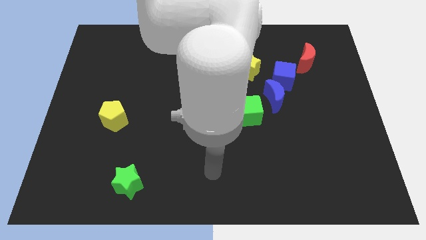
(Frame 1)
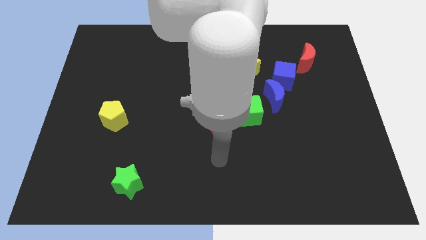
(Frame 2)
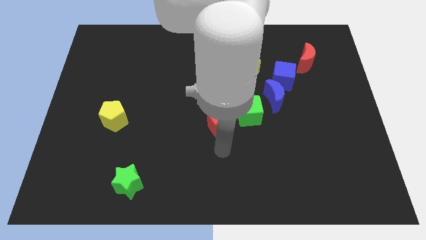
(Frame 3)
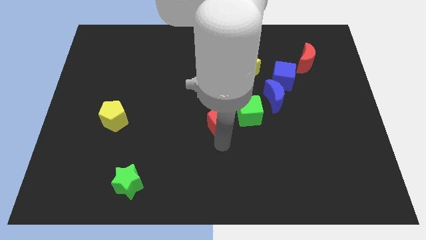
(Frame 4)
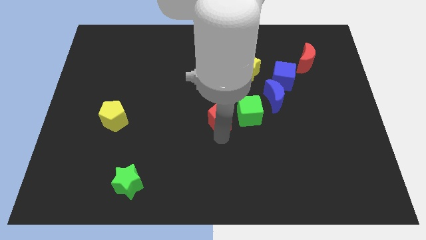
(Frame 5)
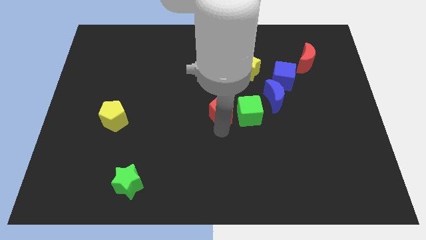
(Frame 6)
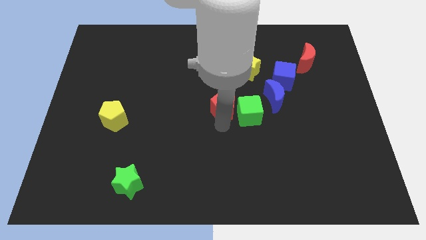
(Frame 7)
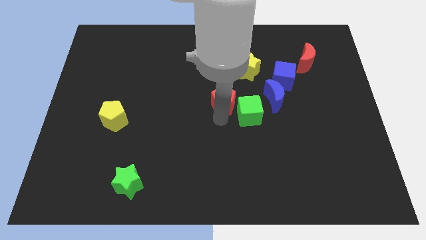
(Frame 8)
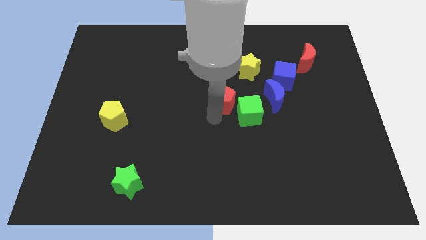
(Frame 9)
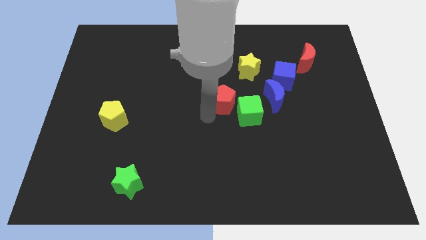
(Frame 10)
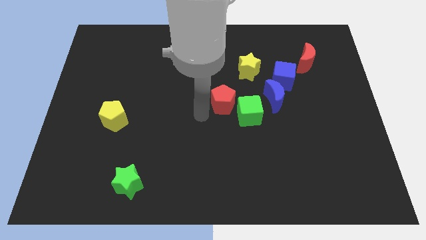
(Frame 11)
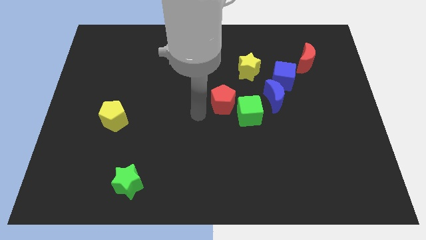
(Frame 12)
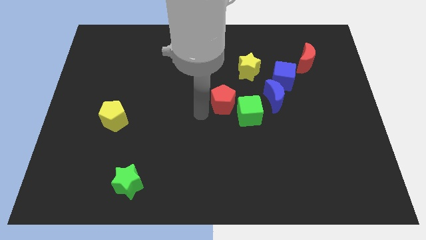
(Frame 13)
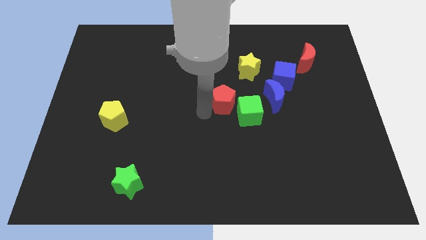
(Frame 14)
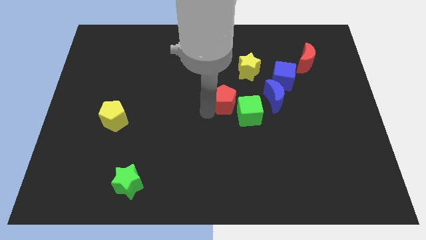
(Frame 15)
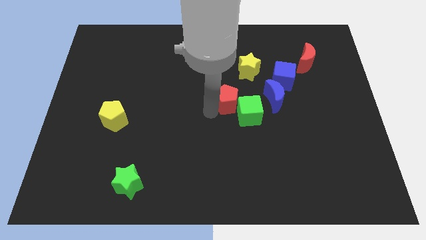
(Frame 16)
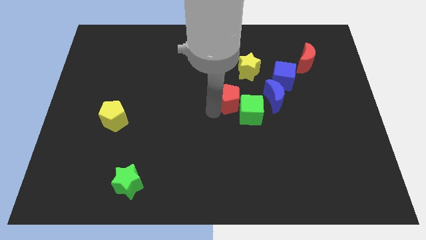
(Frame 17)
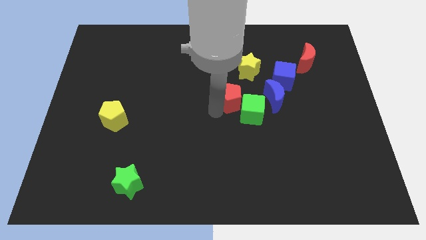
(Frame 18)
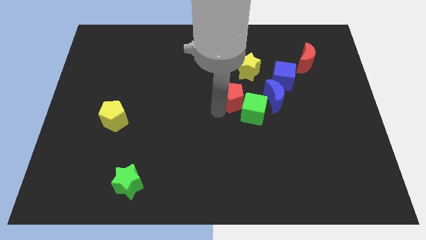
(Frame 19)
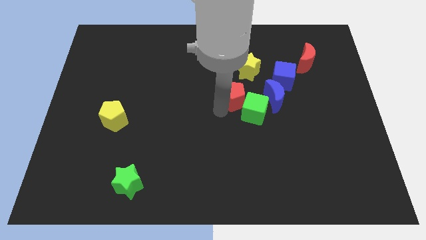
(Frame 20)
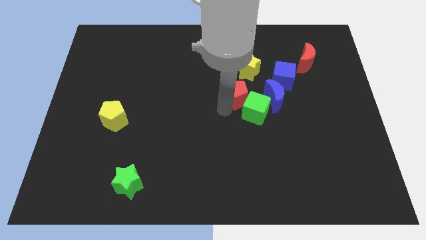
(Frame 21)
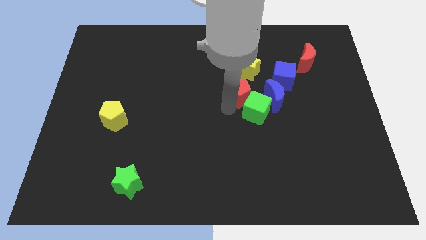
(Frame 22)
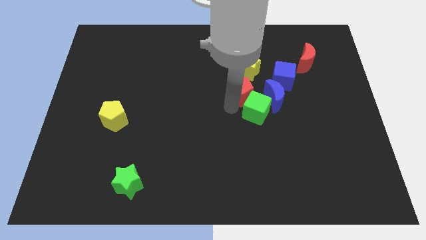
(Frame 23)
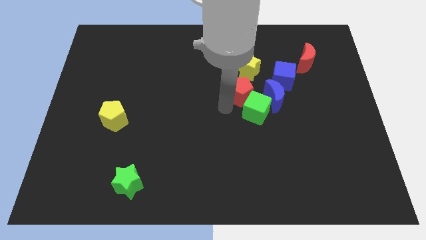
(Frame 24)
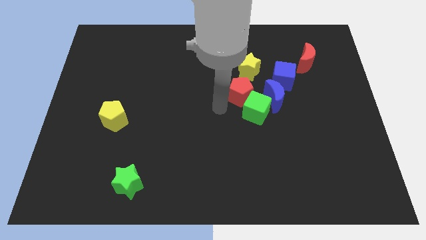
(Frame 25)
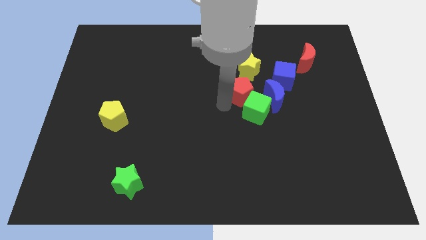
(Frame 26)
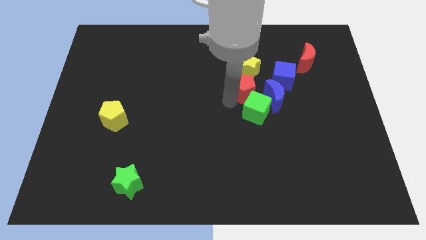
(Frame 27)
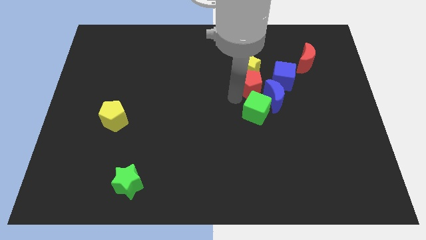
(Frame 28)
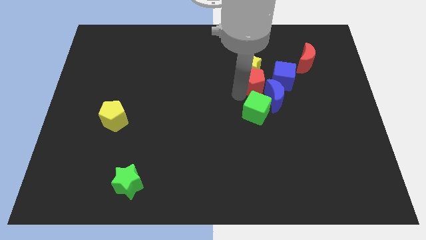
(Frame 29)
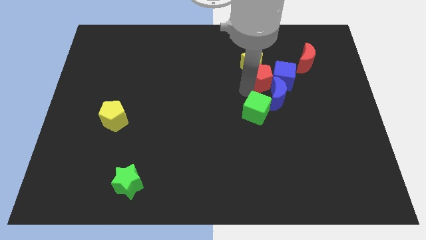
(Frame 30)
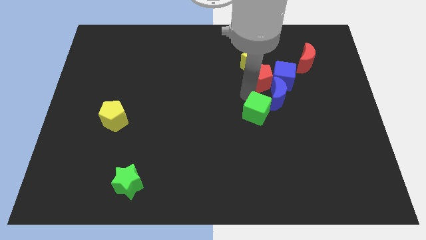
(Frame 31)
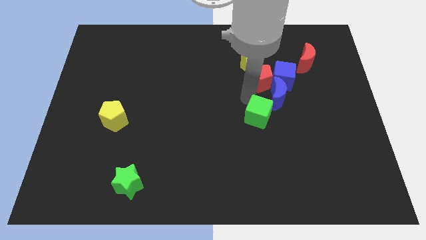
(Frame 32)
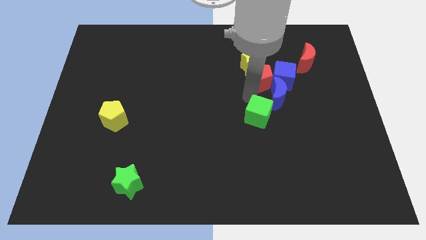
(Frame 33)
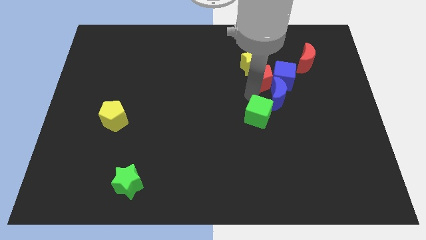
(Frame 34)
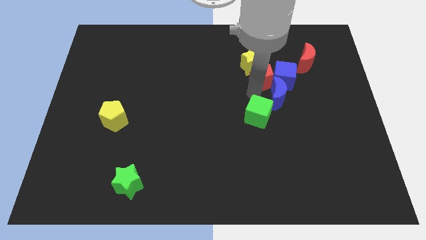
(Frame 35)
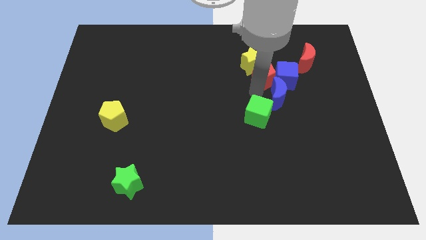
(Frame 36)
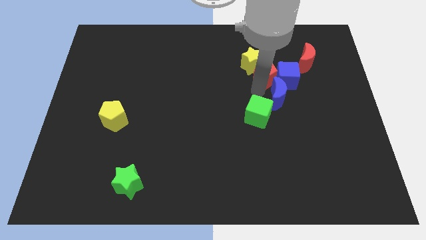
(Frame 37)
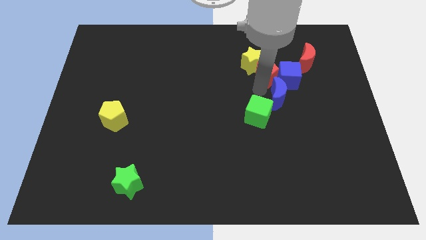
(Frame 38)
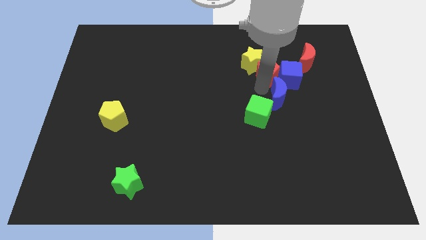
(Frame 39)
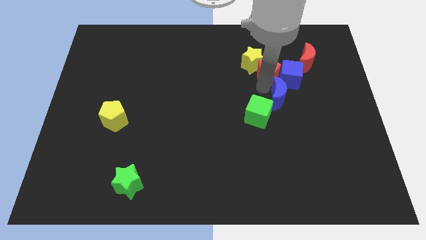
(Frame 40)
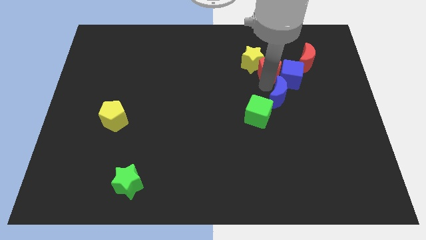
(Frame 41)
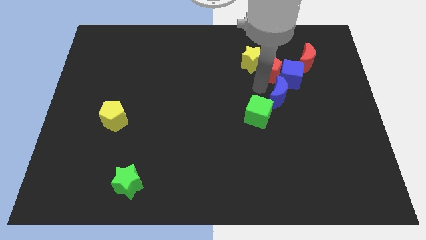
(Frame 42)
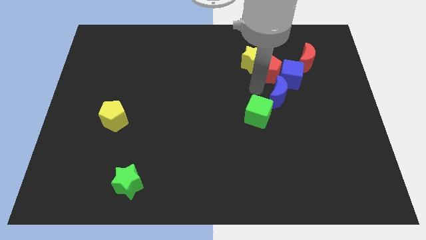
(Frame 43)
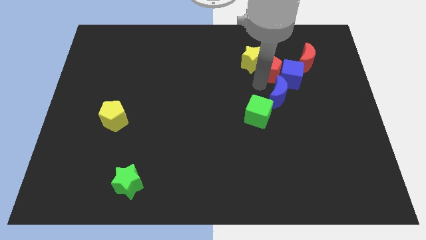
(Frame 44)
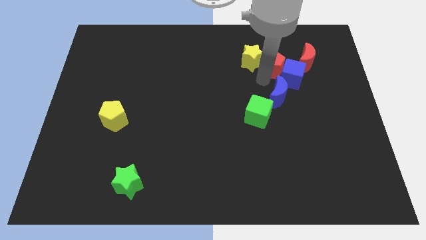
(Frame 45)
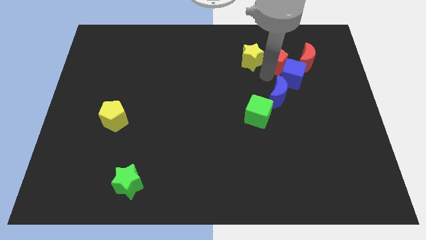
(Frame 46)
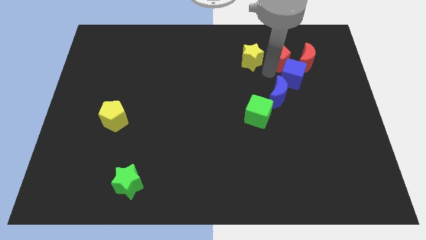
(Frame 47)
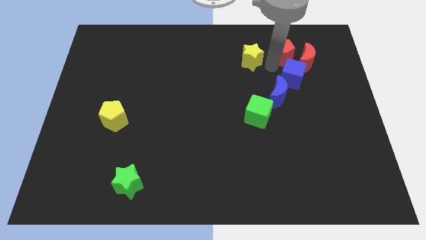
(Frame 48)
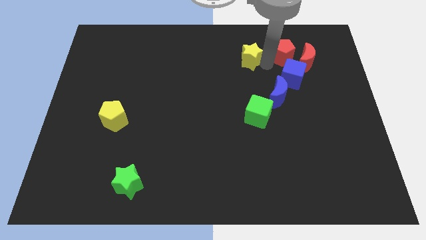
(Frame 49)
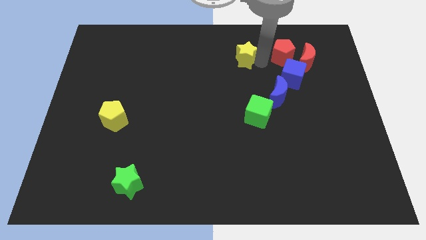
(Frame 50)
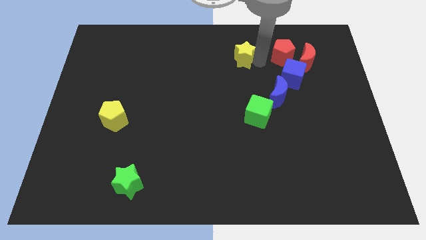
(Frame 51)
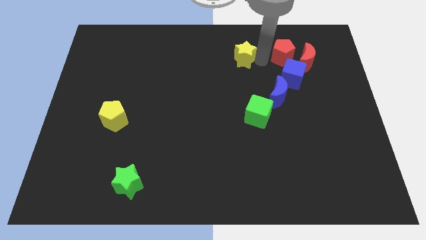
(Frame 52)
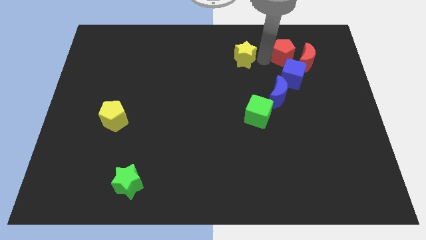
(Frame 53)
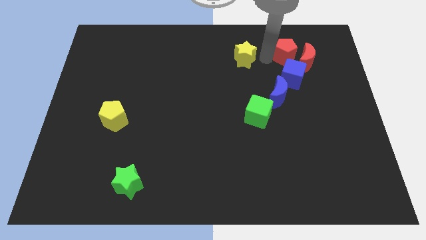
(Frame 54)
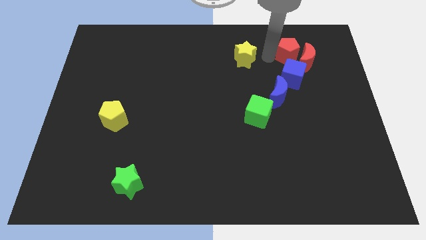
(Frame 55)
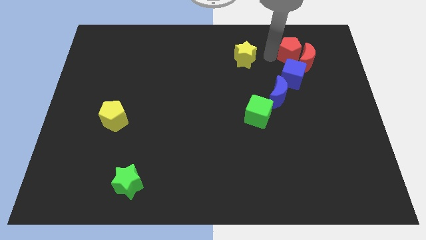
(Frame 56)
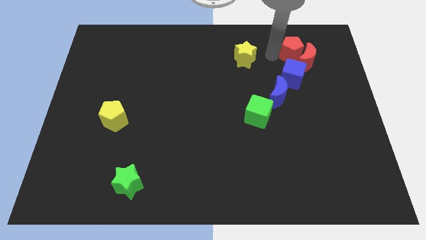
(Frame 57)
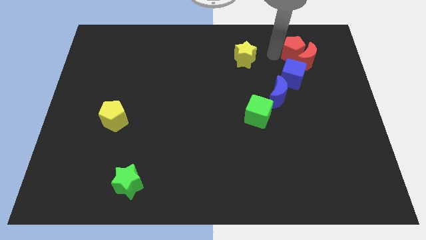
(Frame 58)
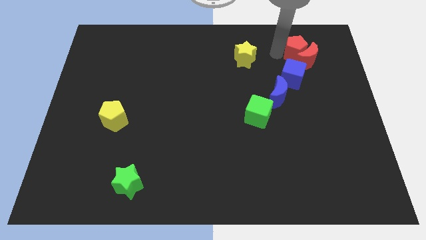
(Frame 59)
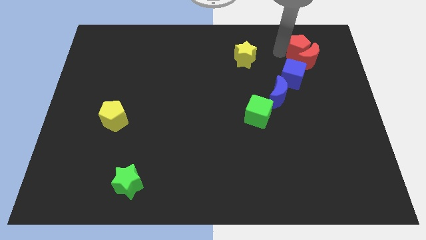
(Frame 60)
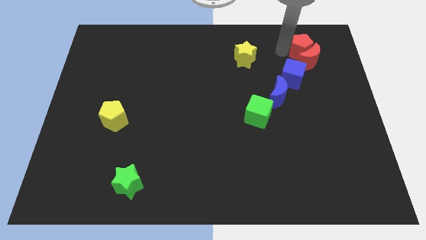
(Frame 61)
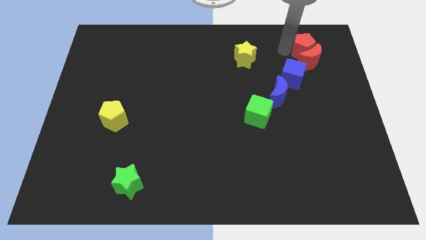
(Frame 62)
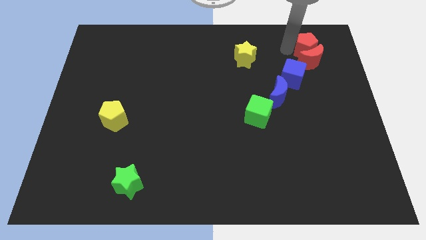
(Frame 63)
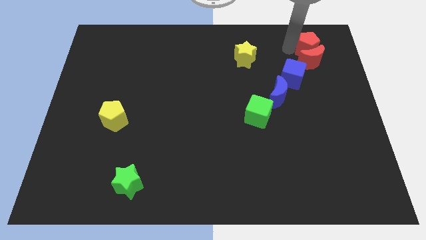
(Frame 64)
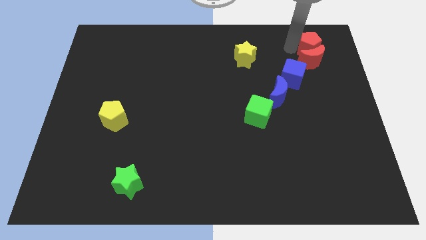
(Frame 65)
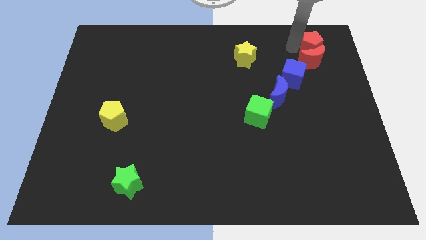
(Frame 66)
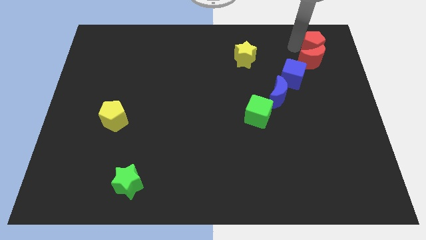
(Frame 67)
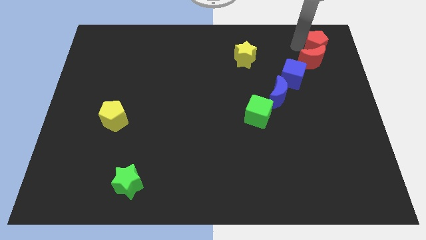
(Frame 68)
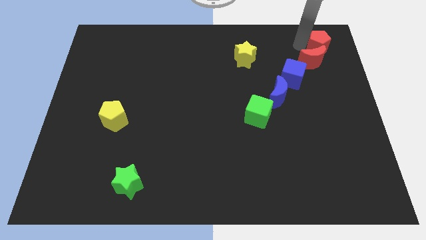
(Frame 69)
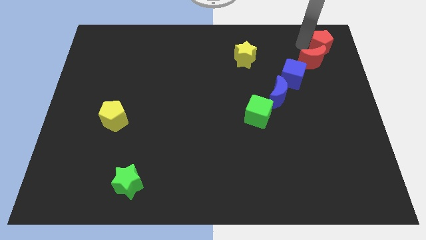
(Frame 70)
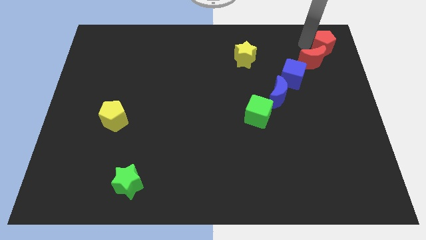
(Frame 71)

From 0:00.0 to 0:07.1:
move the red pentagon to the top right of the board

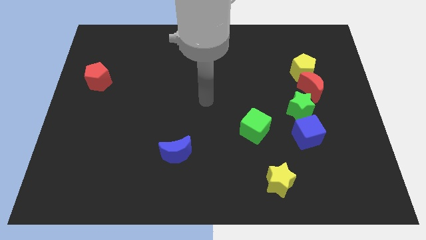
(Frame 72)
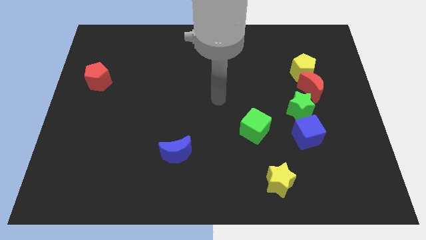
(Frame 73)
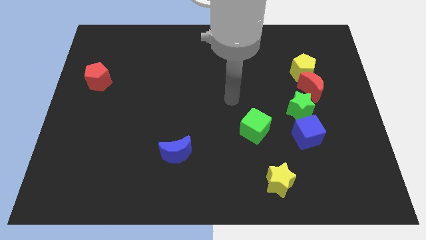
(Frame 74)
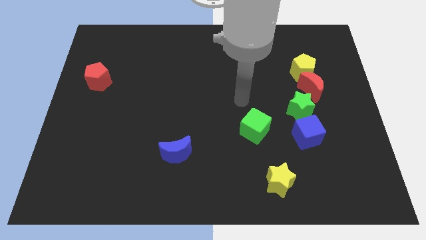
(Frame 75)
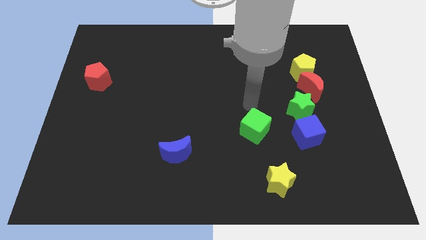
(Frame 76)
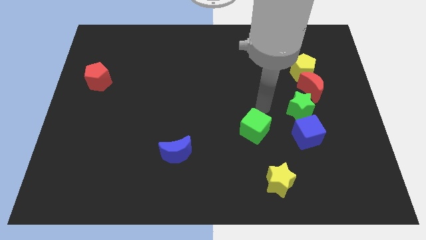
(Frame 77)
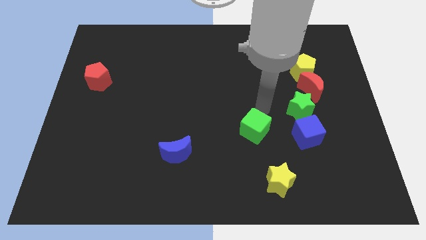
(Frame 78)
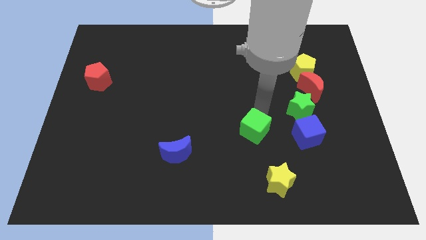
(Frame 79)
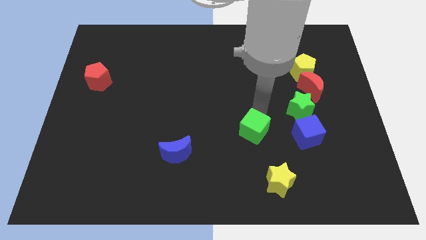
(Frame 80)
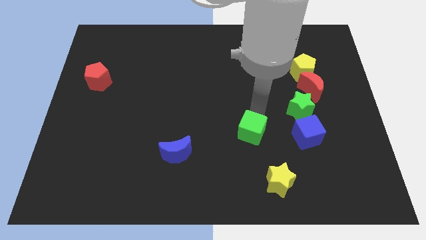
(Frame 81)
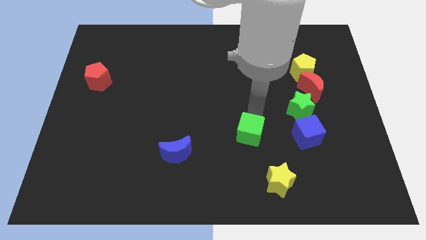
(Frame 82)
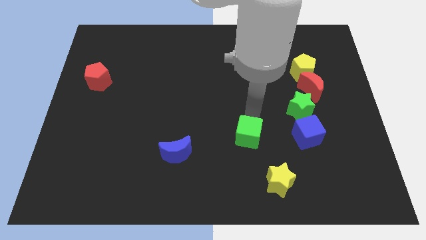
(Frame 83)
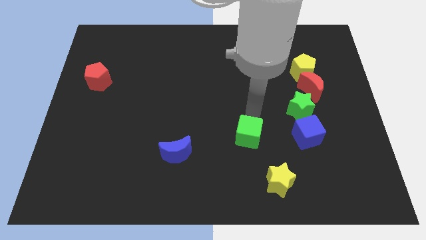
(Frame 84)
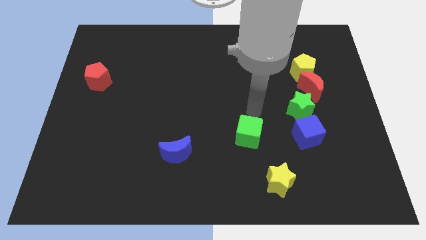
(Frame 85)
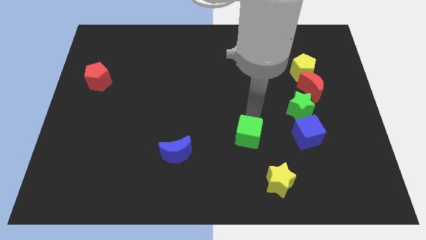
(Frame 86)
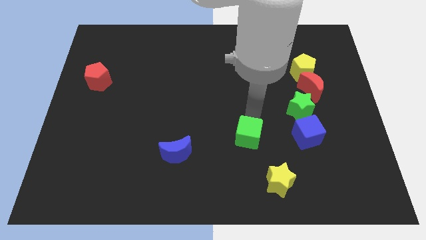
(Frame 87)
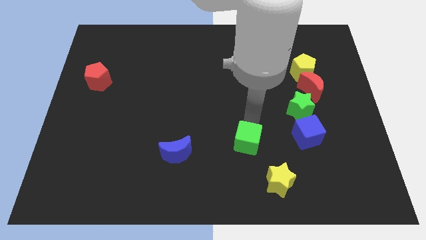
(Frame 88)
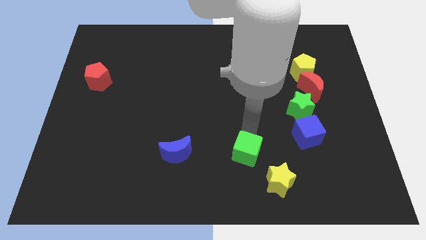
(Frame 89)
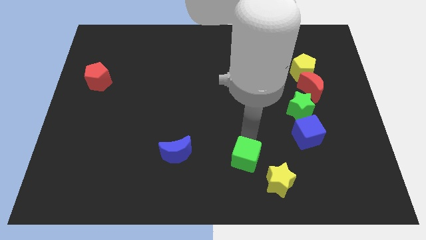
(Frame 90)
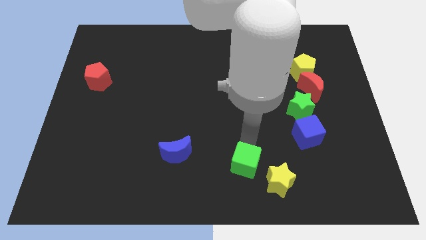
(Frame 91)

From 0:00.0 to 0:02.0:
move the green cube to the bottom
